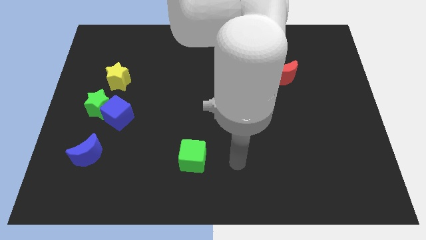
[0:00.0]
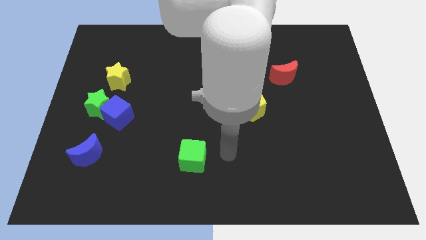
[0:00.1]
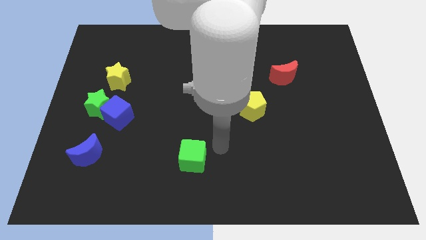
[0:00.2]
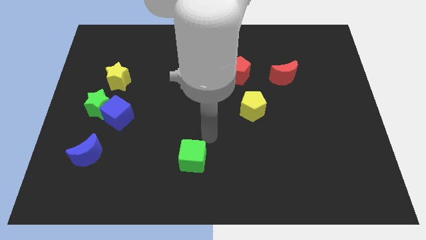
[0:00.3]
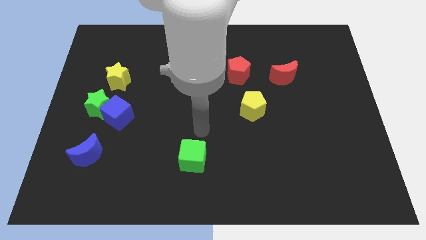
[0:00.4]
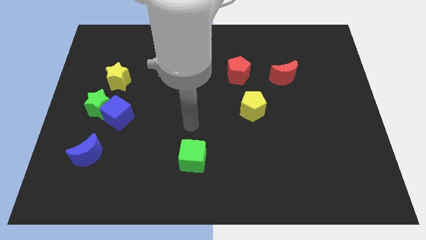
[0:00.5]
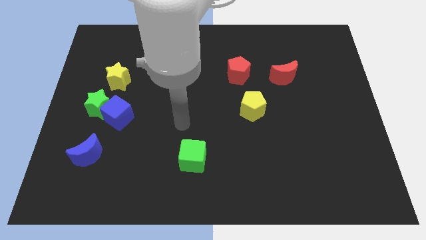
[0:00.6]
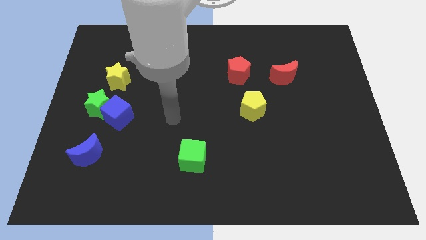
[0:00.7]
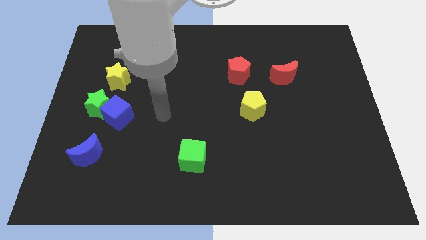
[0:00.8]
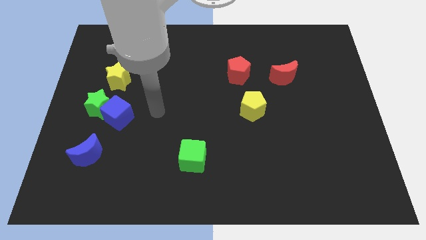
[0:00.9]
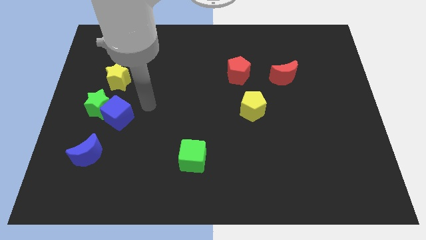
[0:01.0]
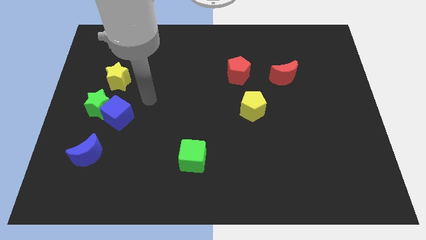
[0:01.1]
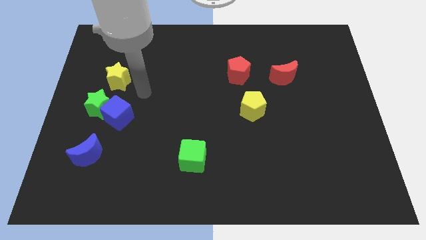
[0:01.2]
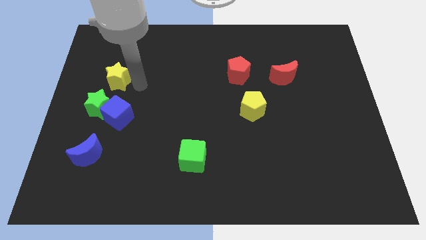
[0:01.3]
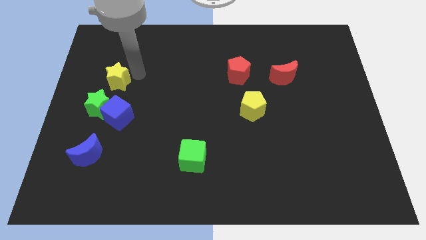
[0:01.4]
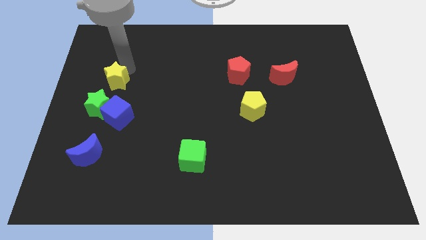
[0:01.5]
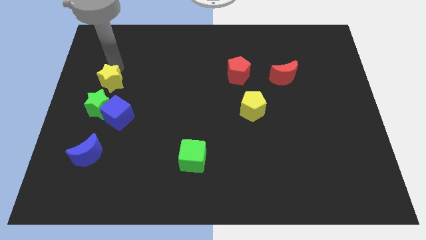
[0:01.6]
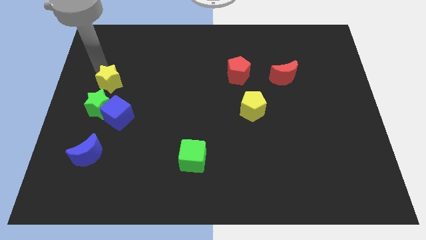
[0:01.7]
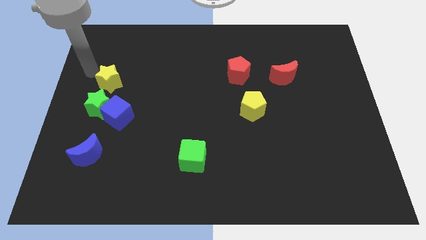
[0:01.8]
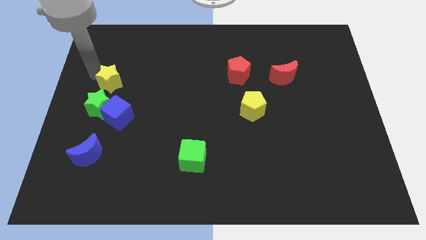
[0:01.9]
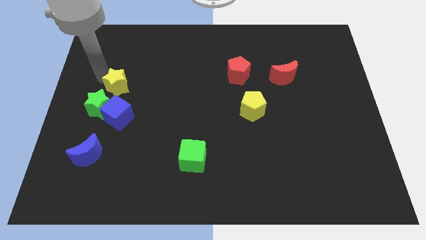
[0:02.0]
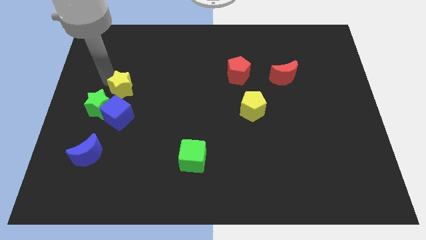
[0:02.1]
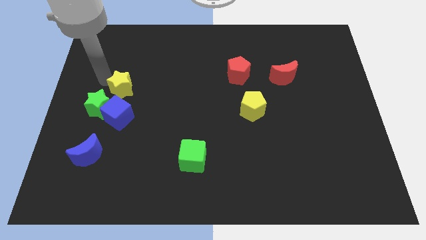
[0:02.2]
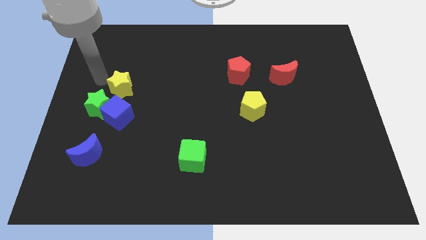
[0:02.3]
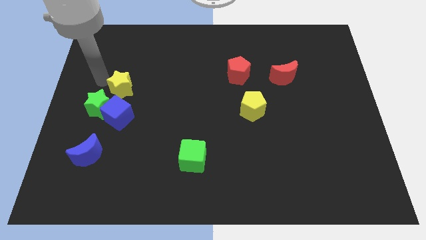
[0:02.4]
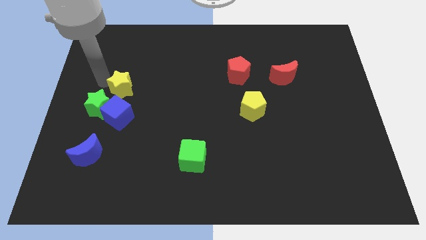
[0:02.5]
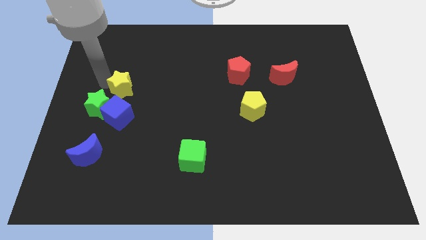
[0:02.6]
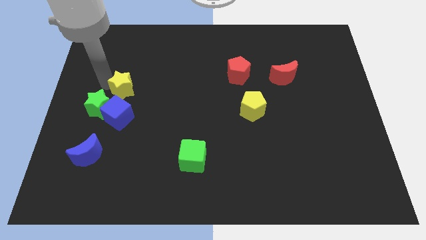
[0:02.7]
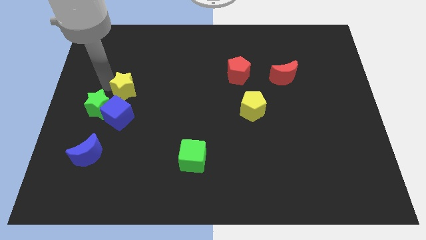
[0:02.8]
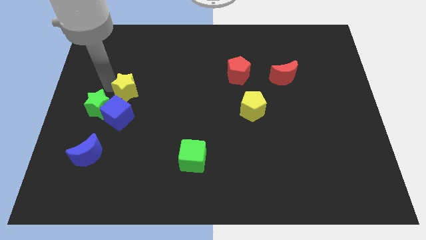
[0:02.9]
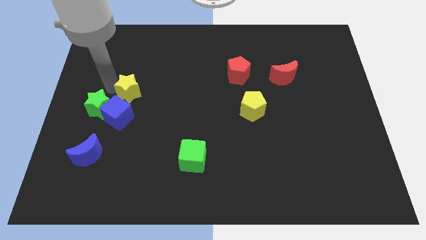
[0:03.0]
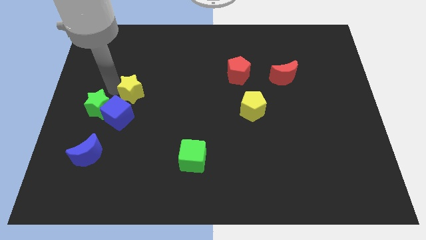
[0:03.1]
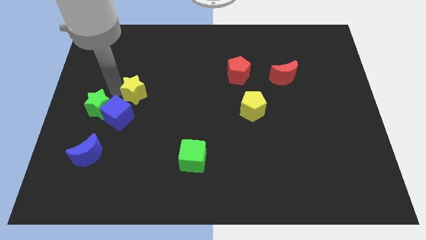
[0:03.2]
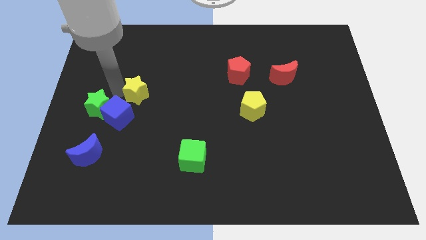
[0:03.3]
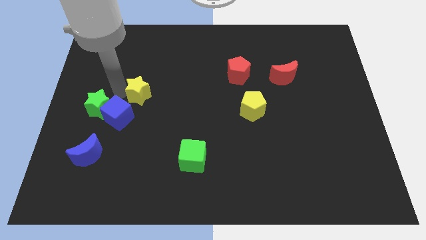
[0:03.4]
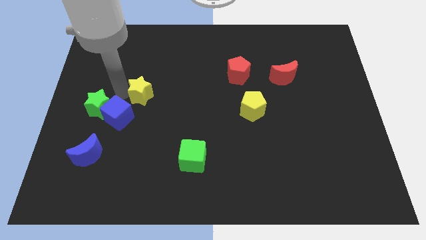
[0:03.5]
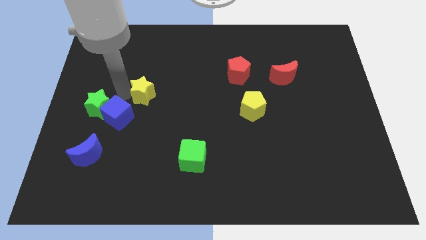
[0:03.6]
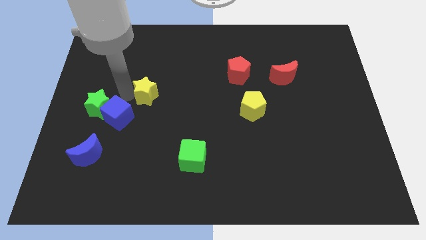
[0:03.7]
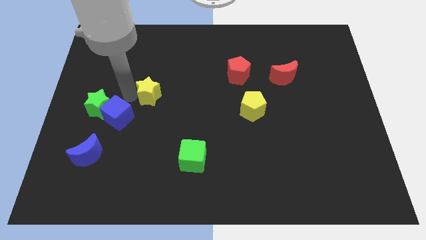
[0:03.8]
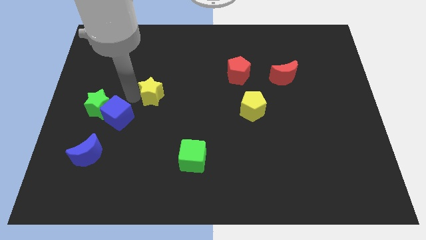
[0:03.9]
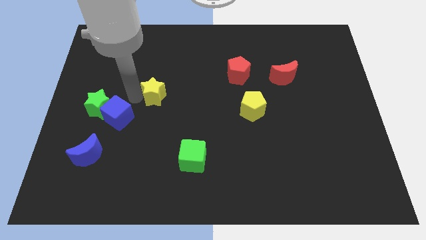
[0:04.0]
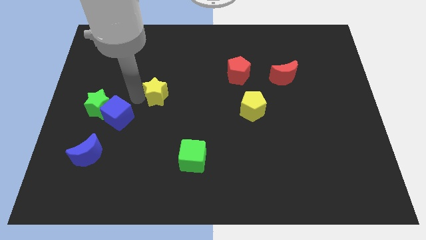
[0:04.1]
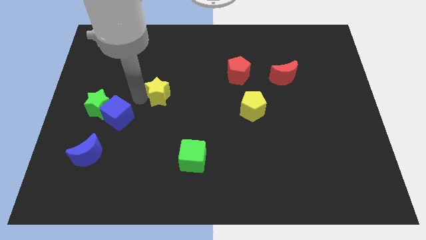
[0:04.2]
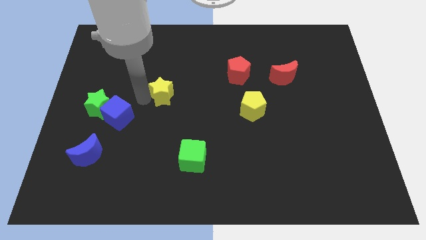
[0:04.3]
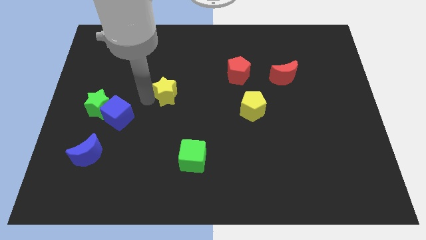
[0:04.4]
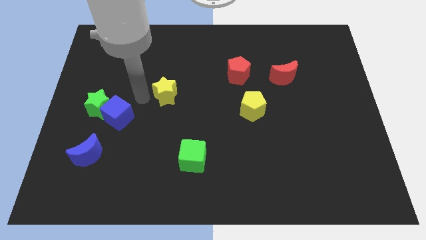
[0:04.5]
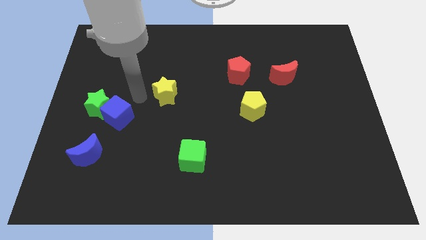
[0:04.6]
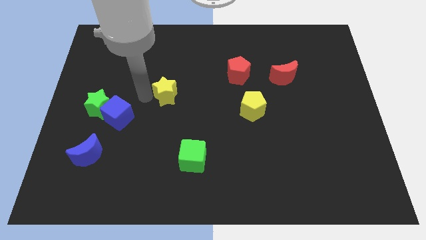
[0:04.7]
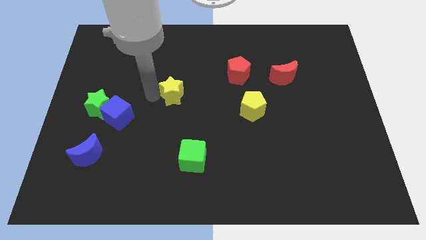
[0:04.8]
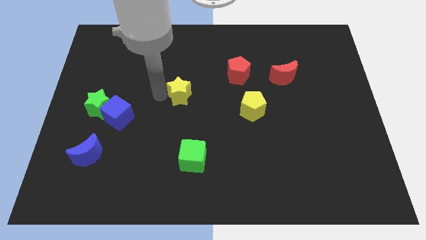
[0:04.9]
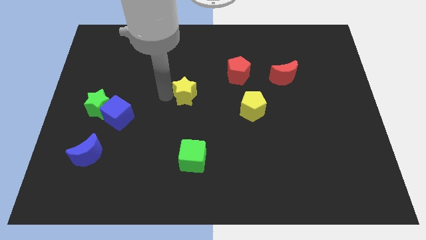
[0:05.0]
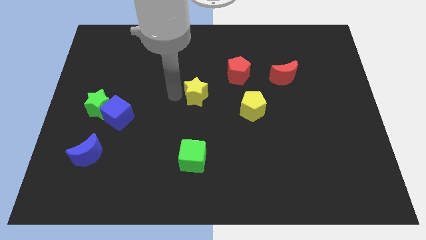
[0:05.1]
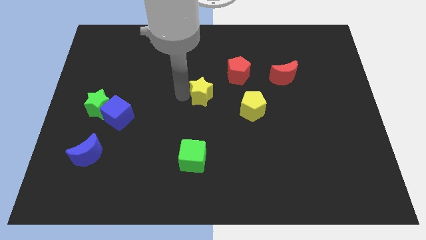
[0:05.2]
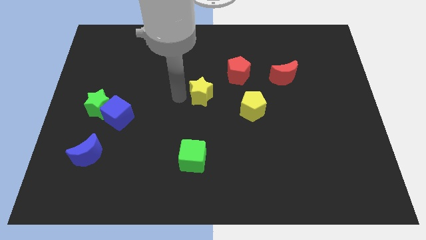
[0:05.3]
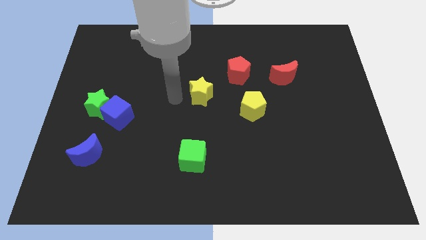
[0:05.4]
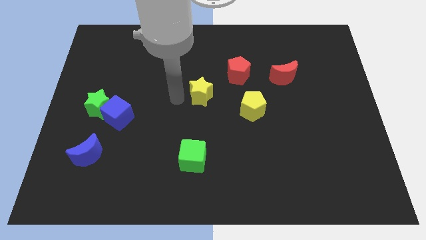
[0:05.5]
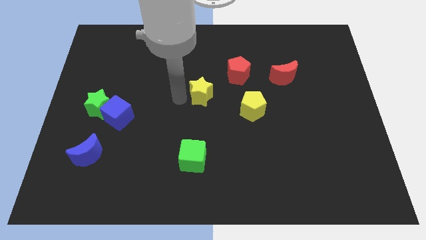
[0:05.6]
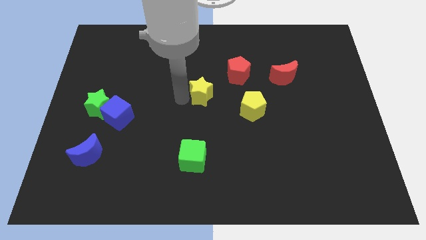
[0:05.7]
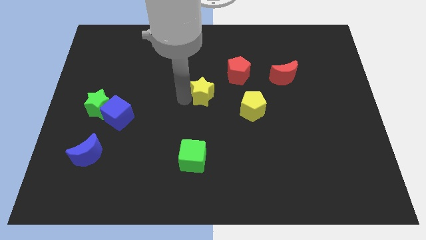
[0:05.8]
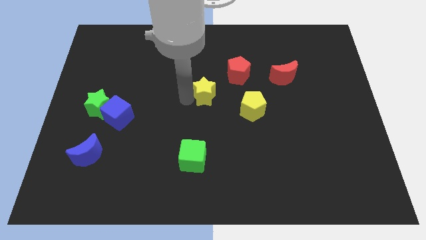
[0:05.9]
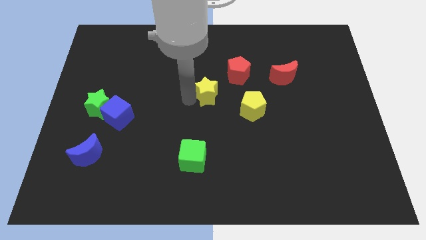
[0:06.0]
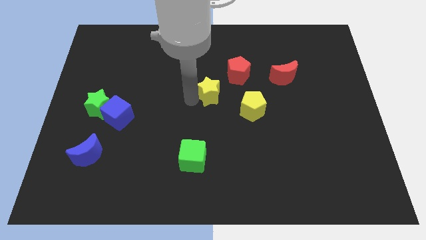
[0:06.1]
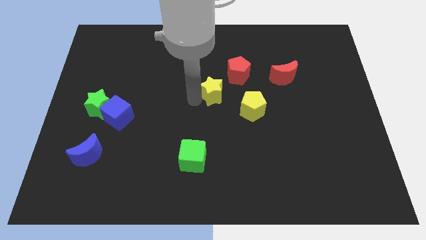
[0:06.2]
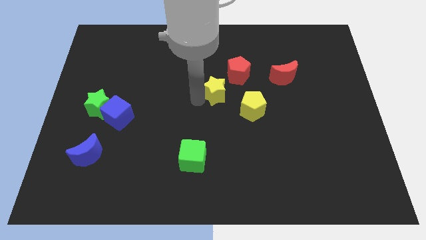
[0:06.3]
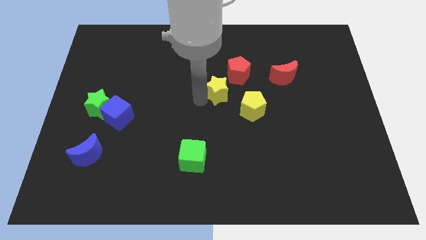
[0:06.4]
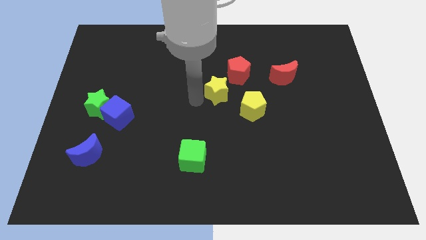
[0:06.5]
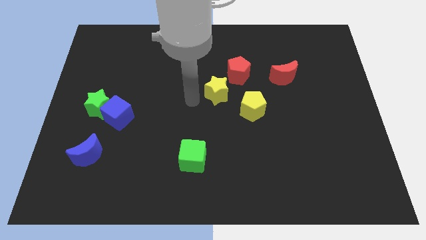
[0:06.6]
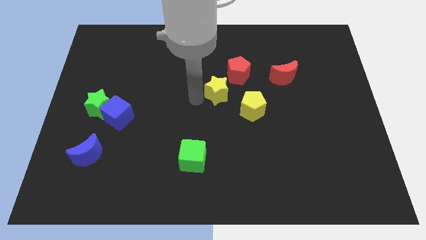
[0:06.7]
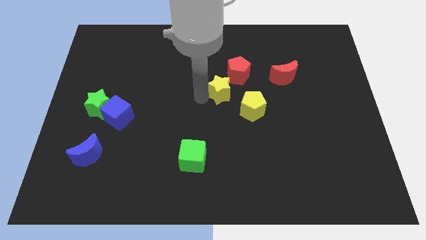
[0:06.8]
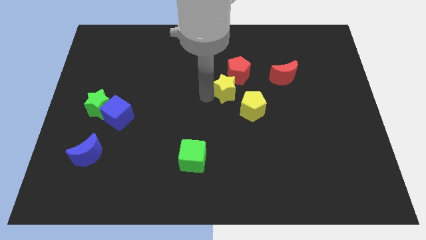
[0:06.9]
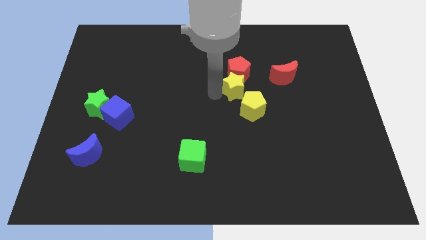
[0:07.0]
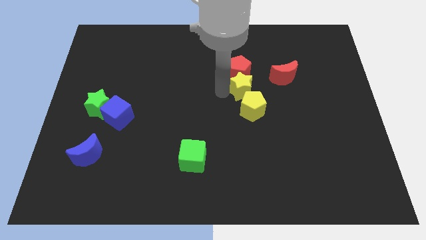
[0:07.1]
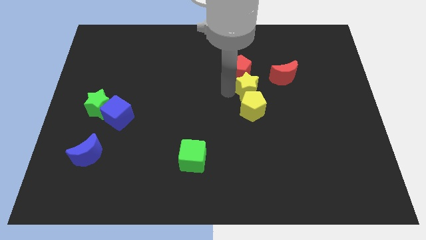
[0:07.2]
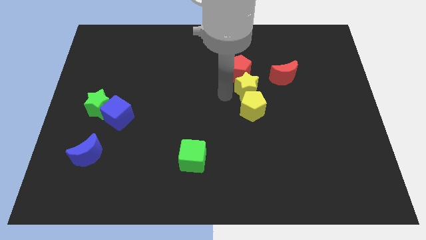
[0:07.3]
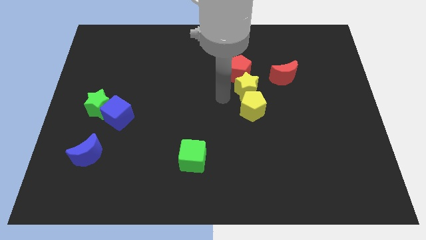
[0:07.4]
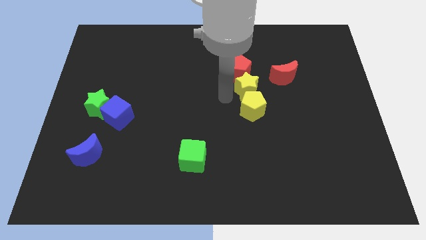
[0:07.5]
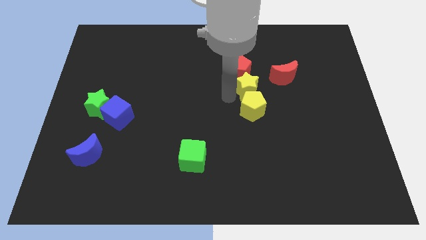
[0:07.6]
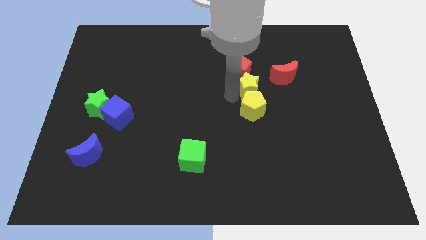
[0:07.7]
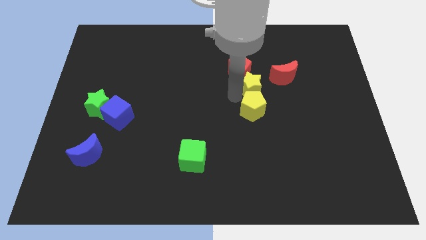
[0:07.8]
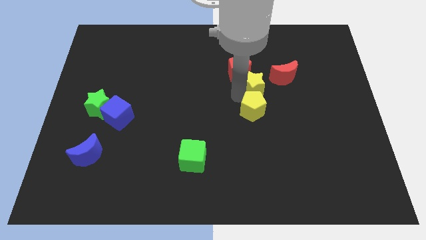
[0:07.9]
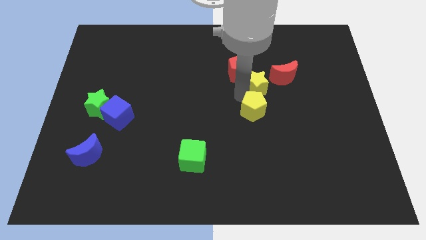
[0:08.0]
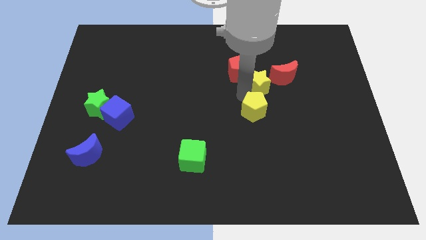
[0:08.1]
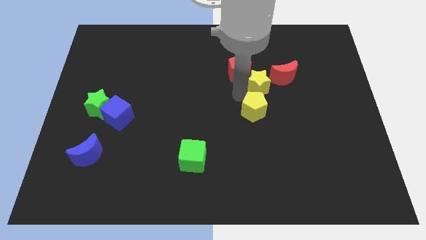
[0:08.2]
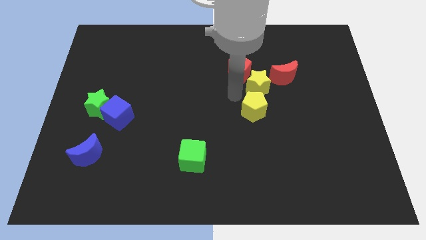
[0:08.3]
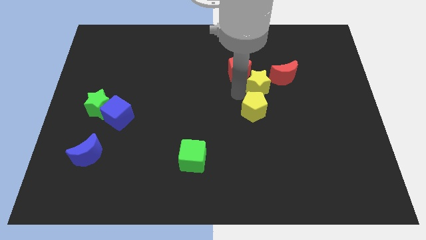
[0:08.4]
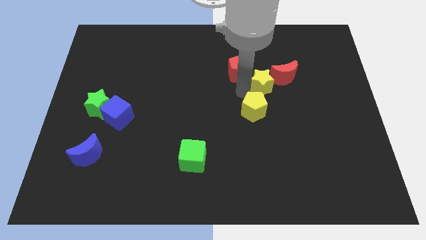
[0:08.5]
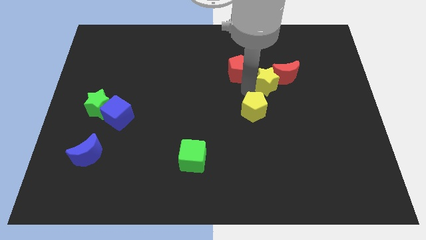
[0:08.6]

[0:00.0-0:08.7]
move the yellow star next to the red moon
